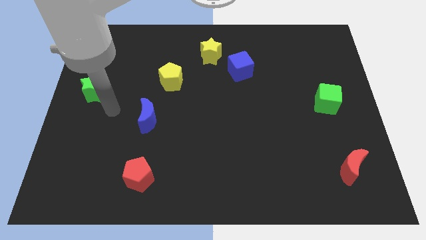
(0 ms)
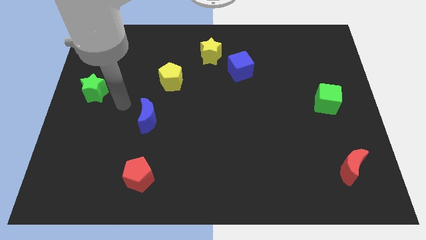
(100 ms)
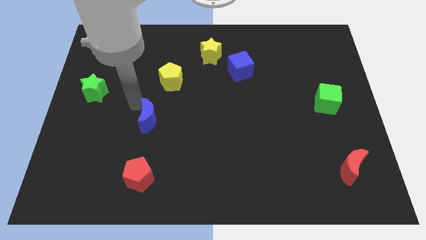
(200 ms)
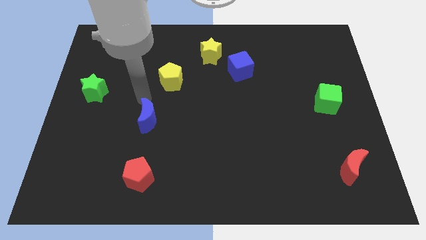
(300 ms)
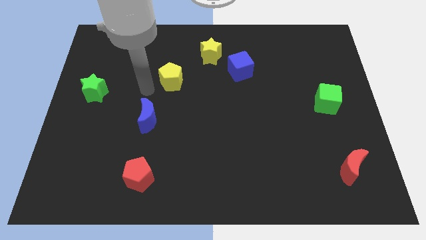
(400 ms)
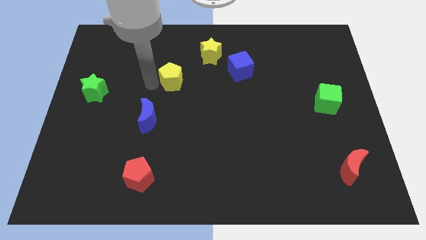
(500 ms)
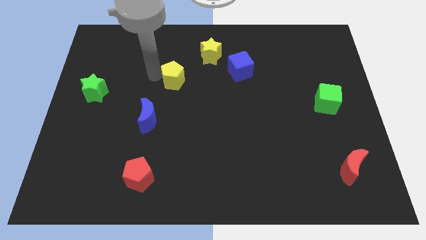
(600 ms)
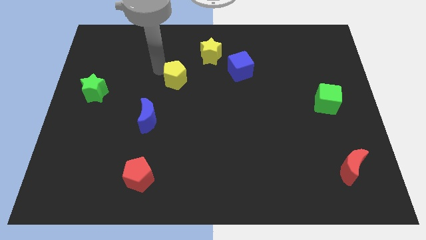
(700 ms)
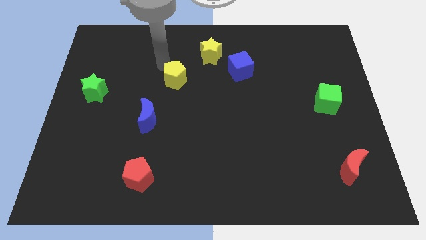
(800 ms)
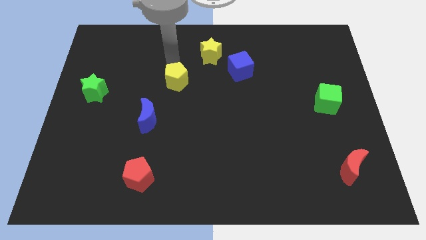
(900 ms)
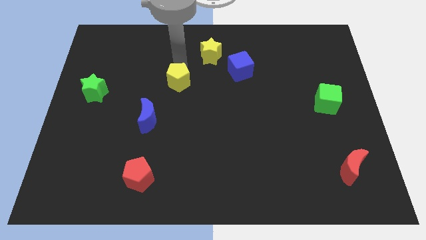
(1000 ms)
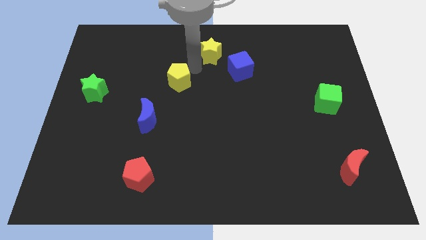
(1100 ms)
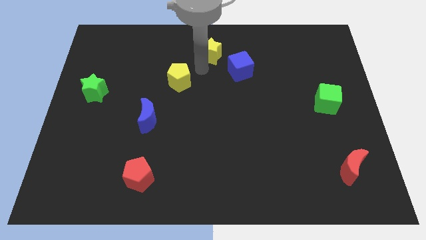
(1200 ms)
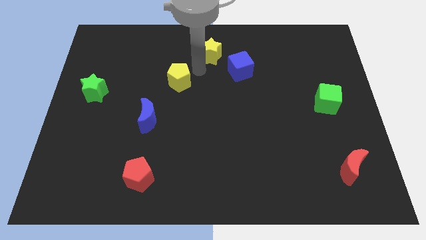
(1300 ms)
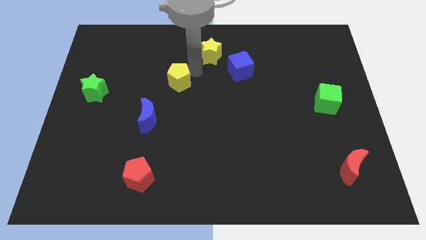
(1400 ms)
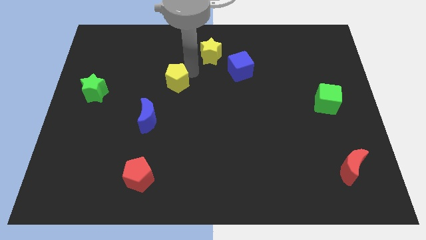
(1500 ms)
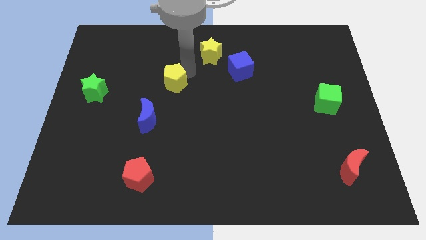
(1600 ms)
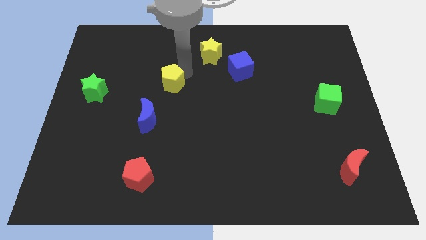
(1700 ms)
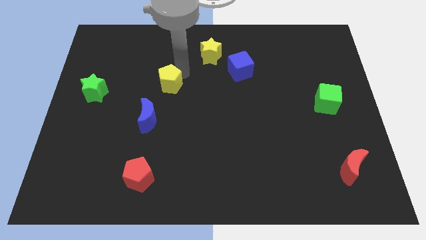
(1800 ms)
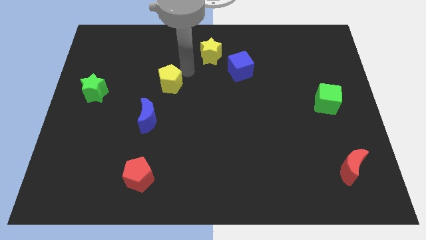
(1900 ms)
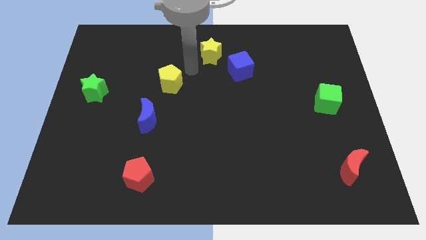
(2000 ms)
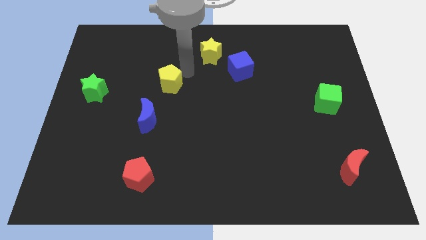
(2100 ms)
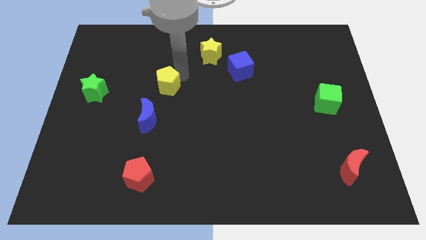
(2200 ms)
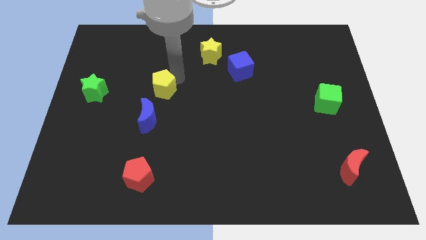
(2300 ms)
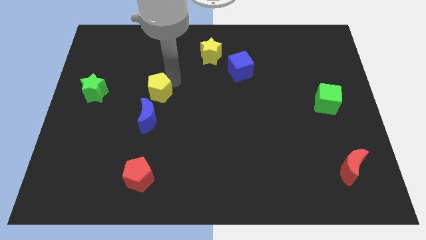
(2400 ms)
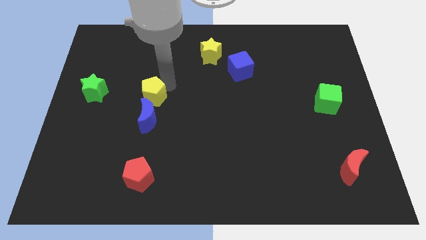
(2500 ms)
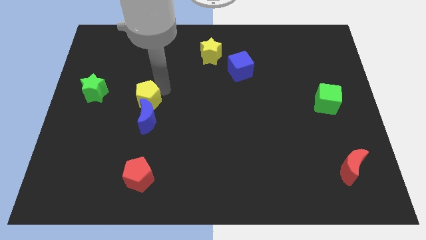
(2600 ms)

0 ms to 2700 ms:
push the yellow pentagon diagonally downwards and to the left a little bit

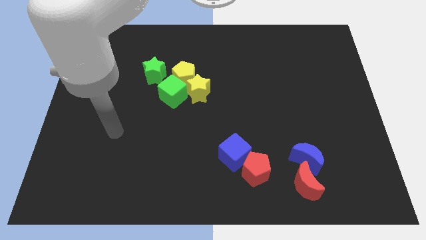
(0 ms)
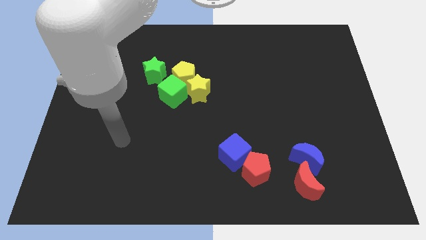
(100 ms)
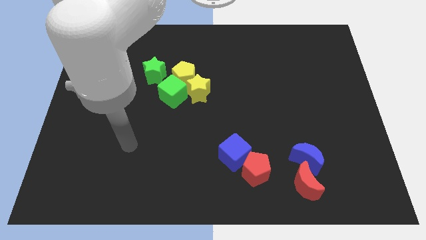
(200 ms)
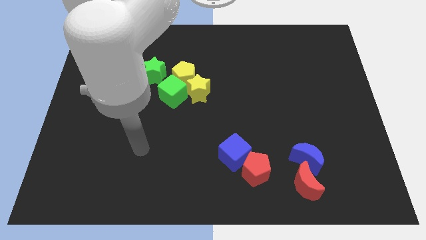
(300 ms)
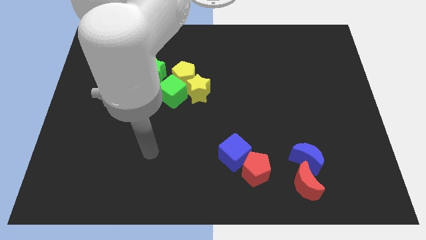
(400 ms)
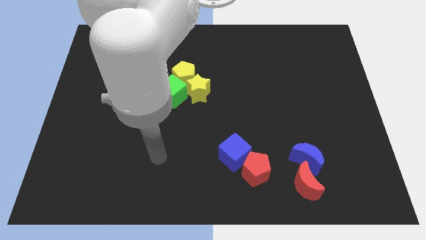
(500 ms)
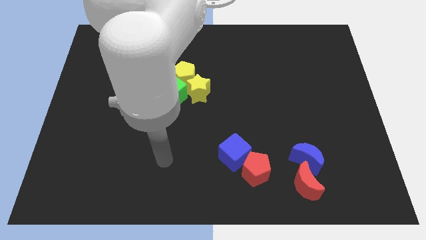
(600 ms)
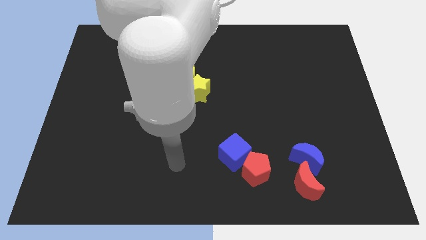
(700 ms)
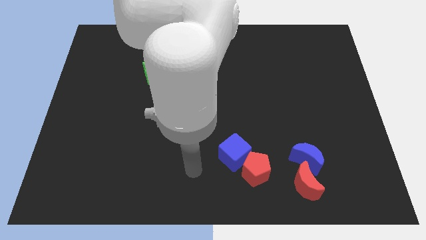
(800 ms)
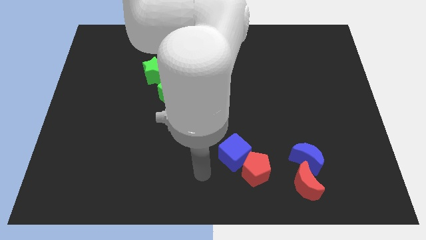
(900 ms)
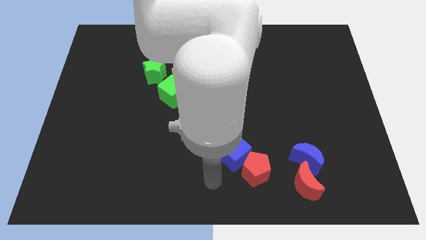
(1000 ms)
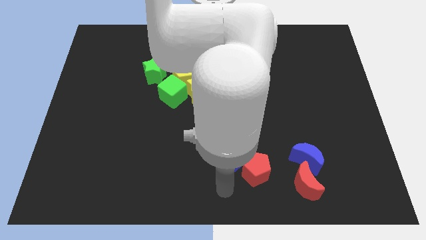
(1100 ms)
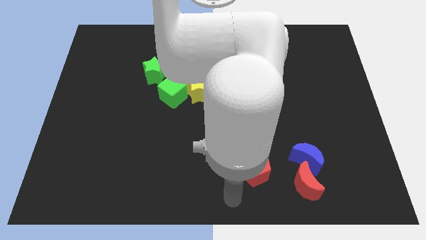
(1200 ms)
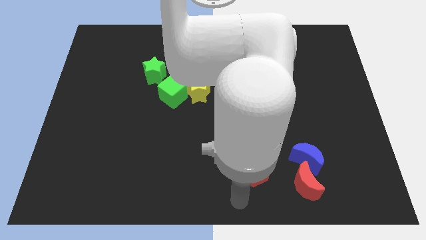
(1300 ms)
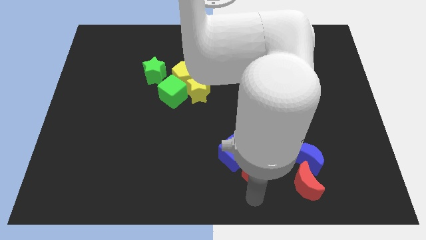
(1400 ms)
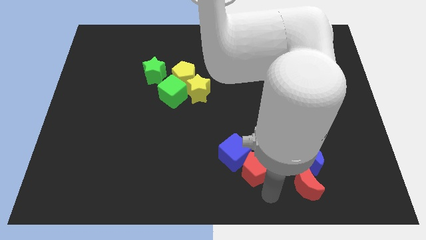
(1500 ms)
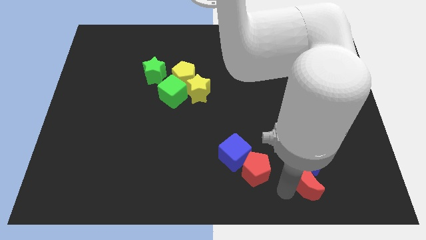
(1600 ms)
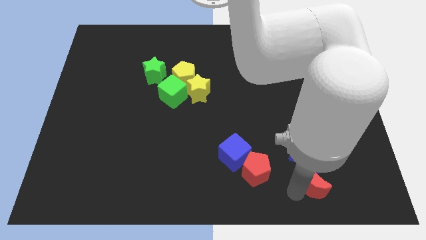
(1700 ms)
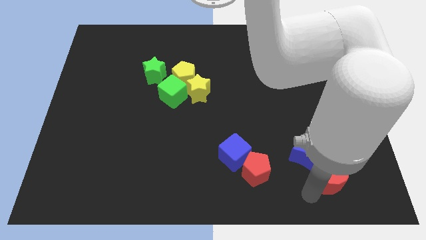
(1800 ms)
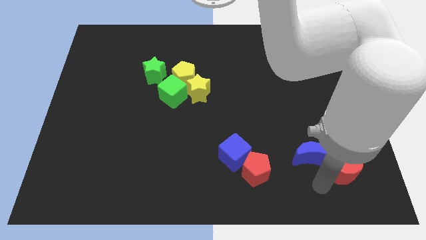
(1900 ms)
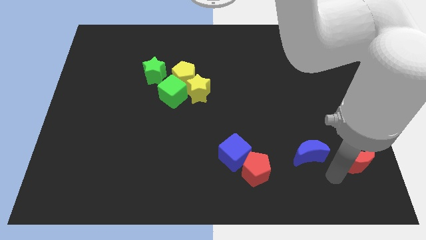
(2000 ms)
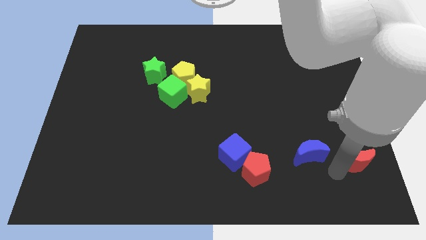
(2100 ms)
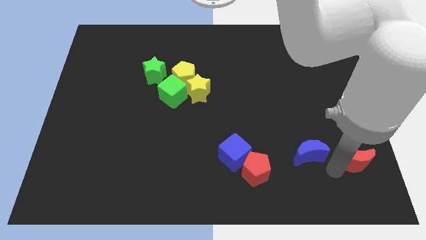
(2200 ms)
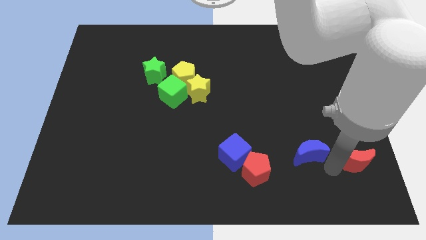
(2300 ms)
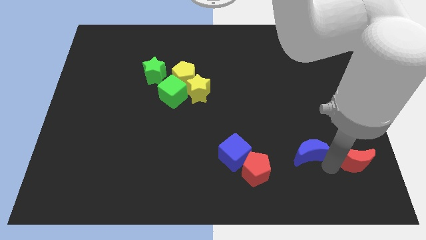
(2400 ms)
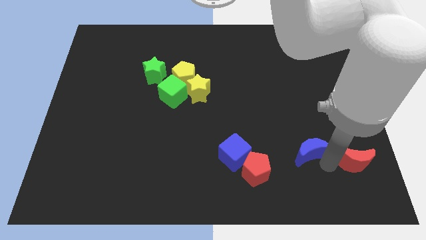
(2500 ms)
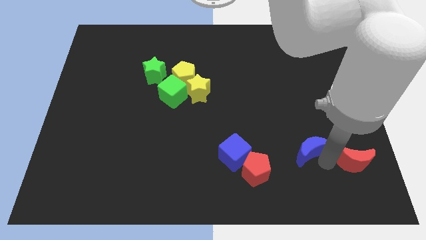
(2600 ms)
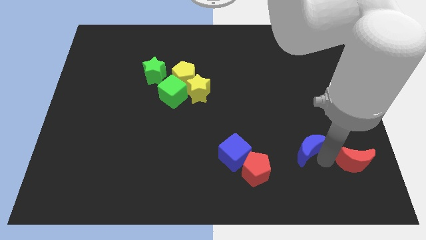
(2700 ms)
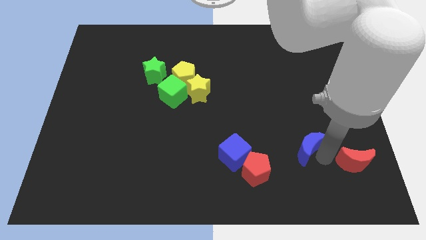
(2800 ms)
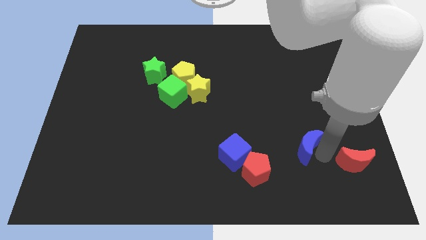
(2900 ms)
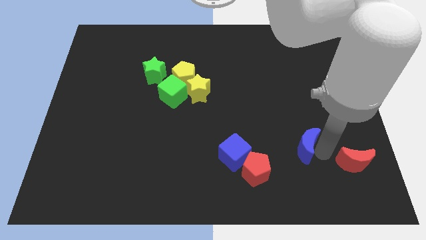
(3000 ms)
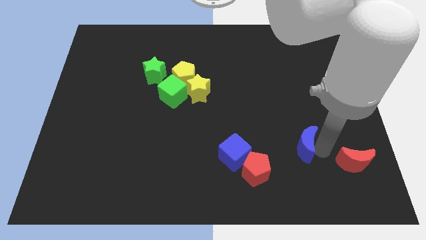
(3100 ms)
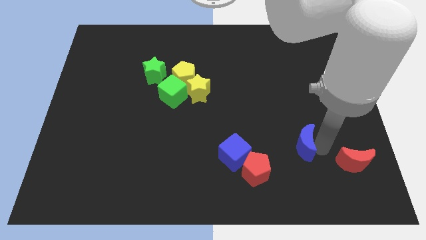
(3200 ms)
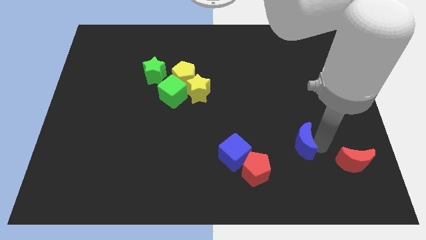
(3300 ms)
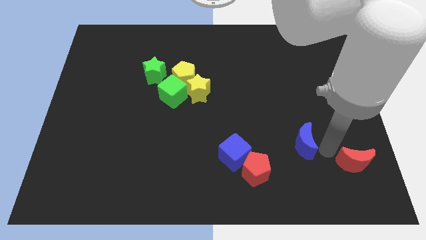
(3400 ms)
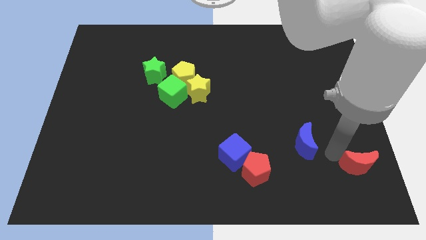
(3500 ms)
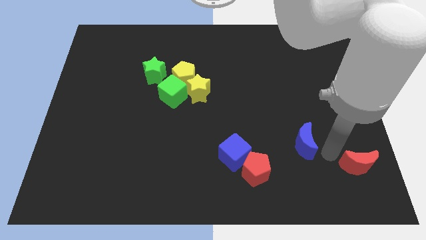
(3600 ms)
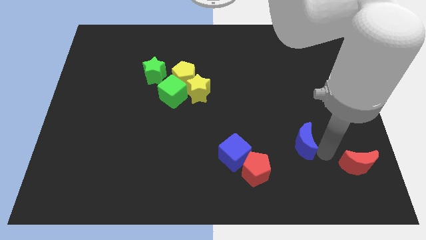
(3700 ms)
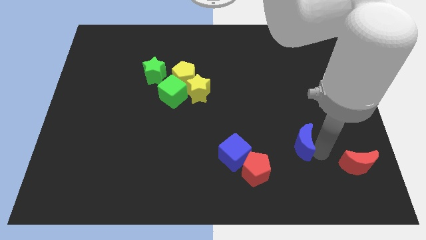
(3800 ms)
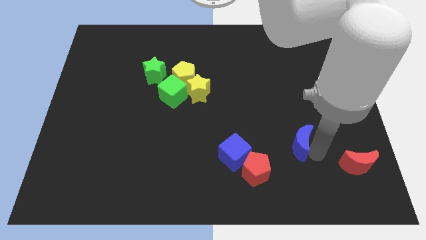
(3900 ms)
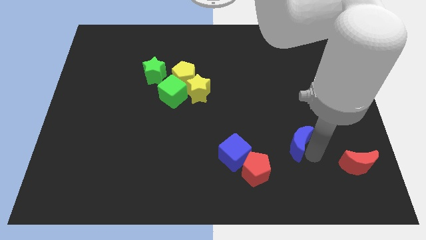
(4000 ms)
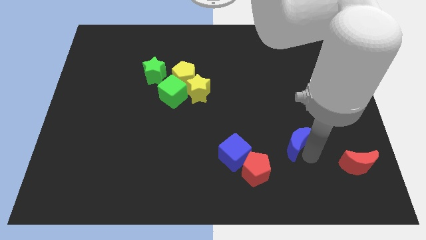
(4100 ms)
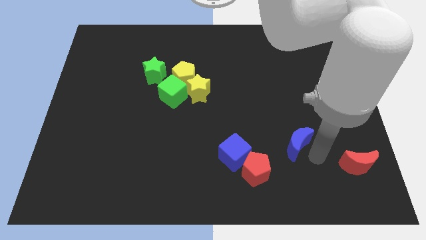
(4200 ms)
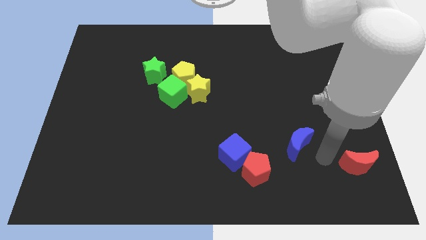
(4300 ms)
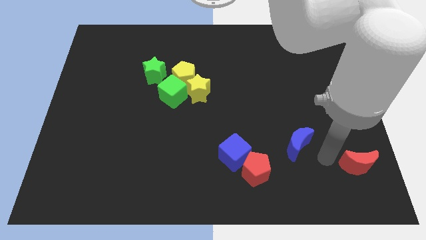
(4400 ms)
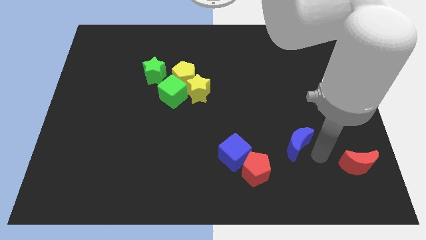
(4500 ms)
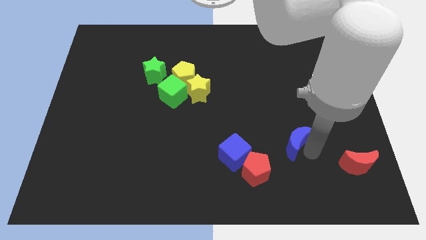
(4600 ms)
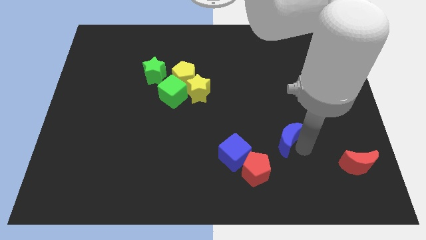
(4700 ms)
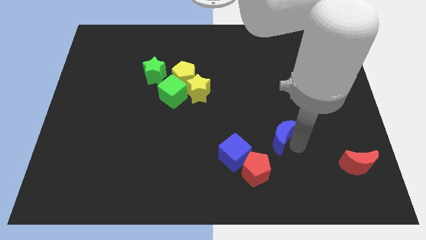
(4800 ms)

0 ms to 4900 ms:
push the blue moon slightly diagonally up and left

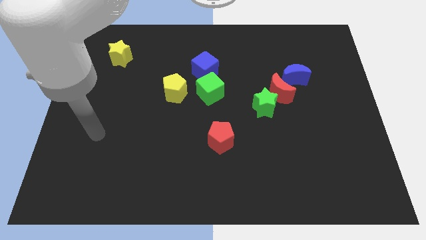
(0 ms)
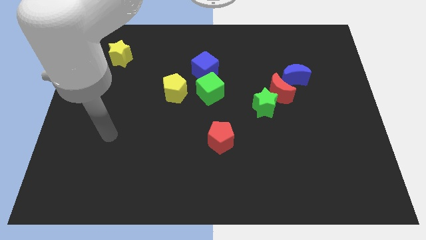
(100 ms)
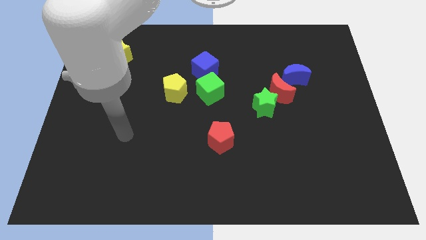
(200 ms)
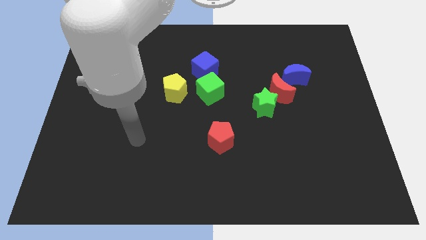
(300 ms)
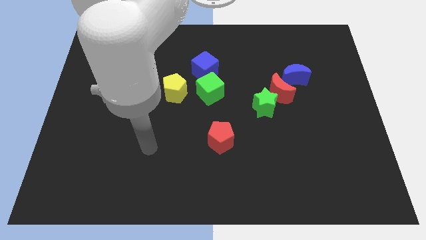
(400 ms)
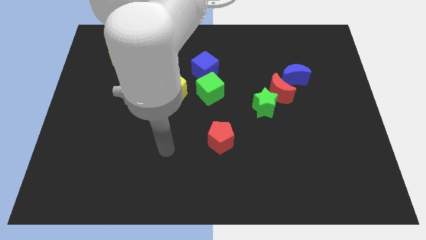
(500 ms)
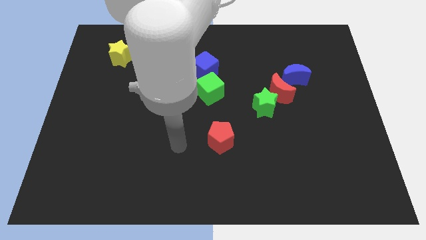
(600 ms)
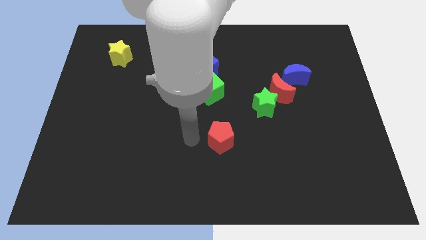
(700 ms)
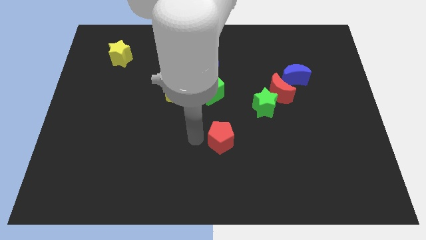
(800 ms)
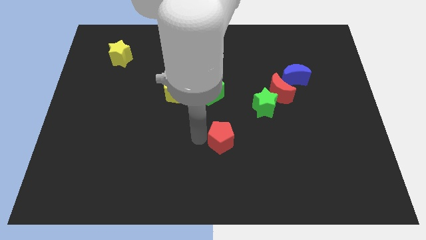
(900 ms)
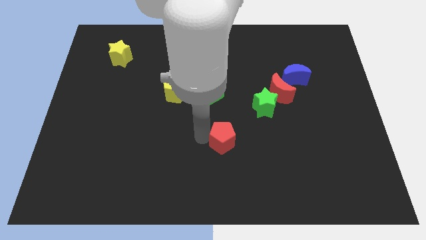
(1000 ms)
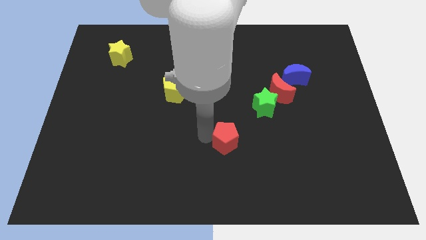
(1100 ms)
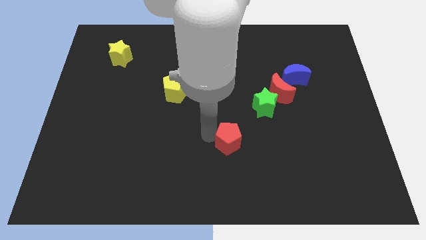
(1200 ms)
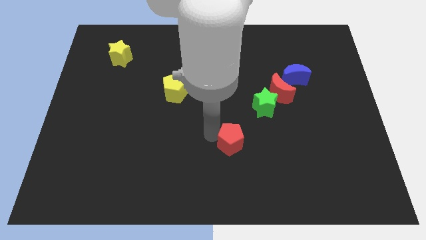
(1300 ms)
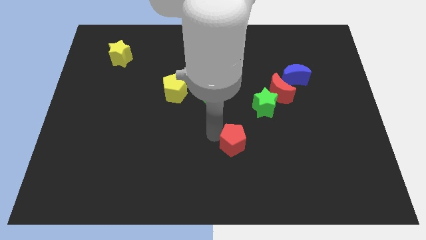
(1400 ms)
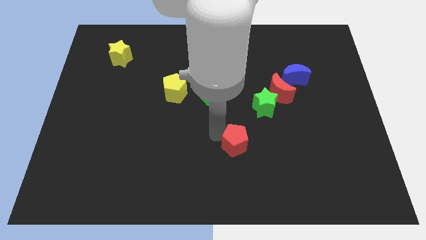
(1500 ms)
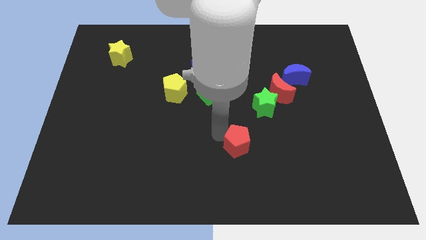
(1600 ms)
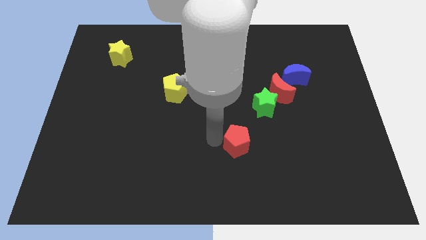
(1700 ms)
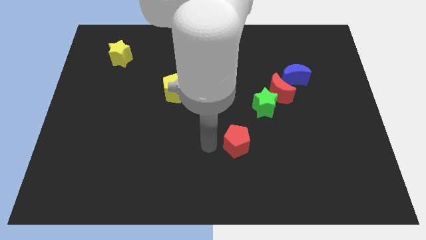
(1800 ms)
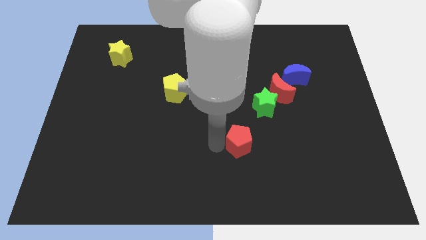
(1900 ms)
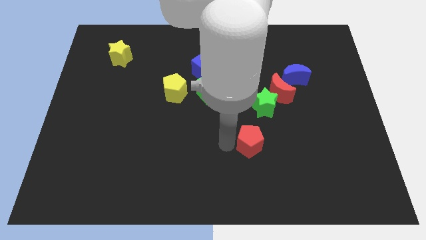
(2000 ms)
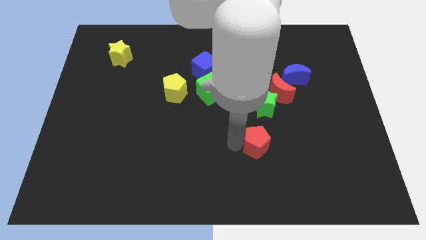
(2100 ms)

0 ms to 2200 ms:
push the red pentagon a bit to the right
